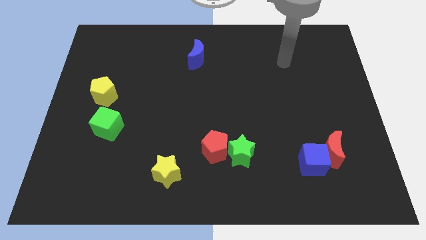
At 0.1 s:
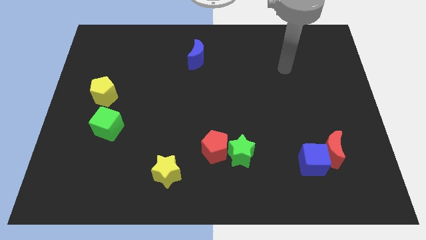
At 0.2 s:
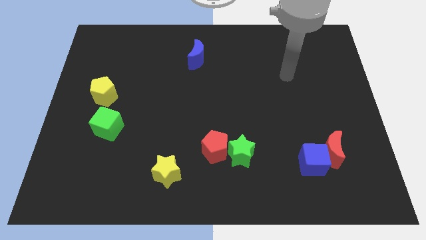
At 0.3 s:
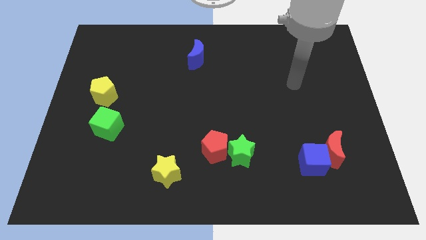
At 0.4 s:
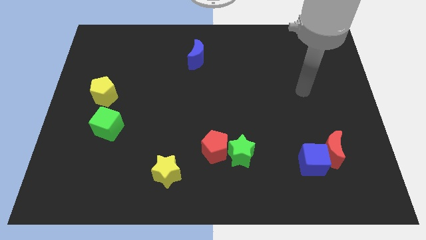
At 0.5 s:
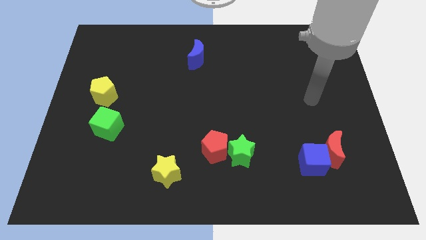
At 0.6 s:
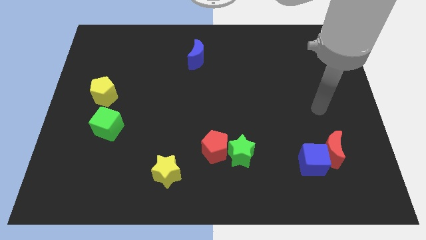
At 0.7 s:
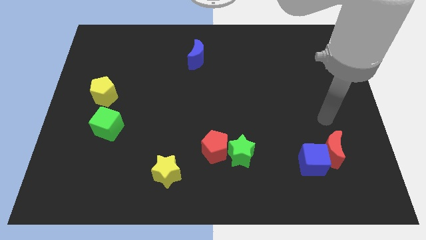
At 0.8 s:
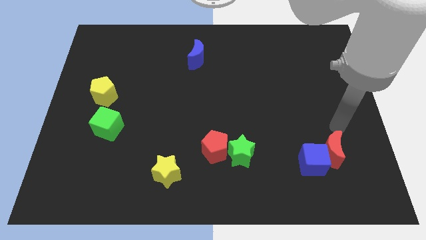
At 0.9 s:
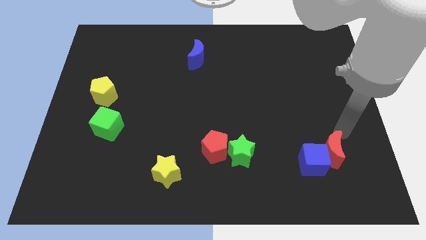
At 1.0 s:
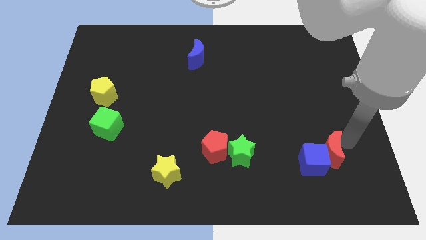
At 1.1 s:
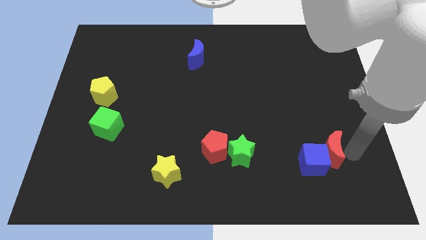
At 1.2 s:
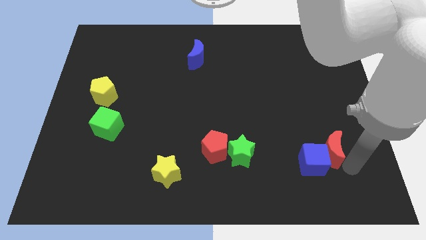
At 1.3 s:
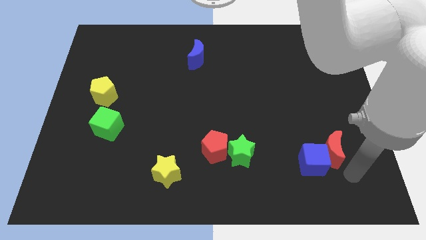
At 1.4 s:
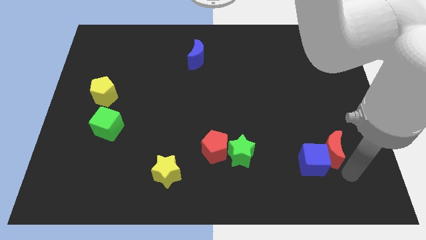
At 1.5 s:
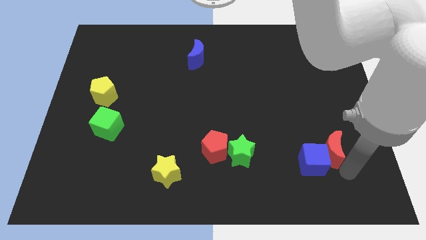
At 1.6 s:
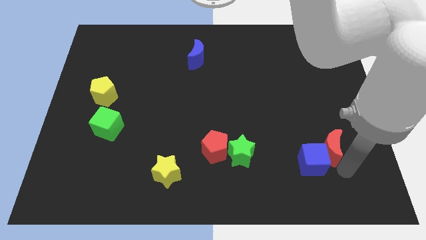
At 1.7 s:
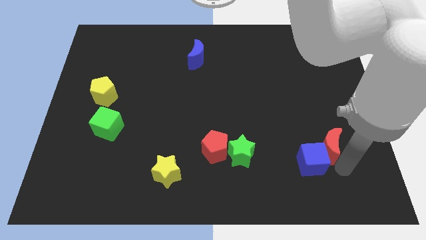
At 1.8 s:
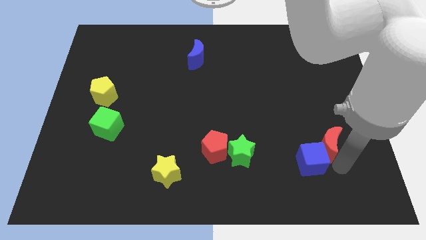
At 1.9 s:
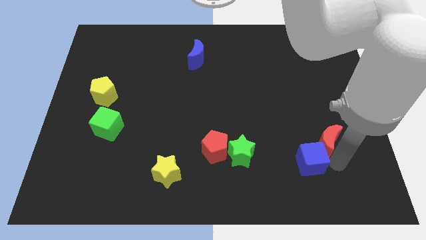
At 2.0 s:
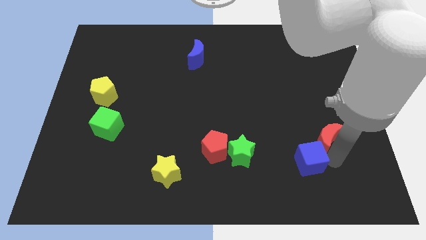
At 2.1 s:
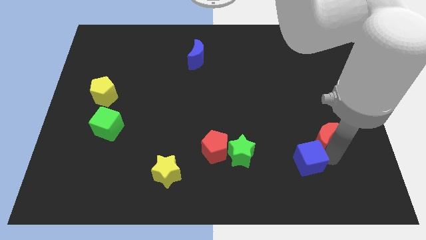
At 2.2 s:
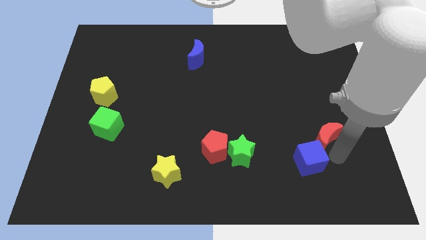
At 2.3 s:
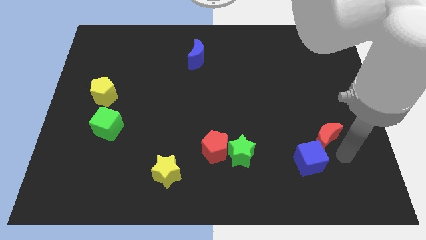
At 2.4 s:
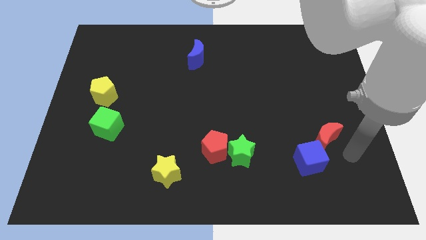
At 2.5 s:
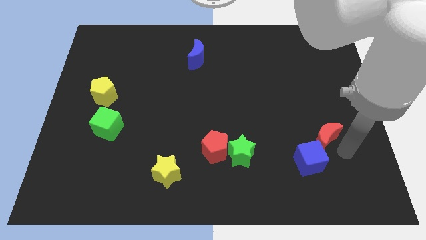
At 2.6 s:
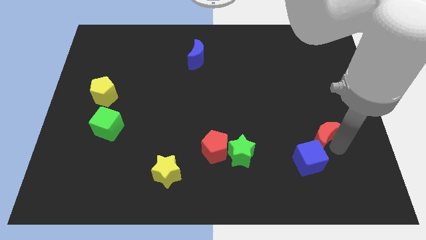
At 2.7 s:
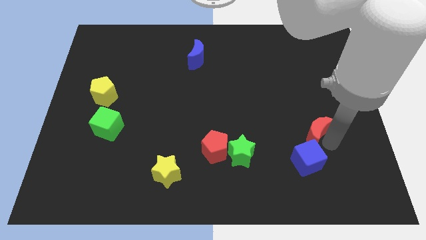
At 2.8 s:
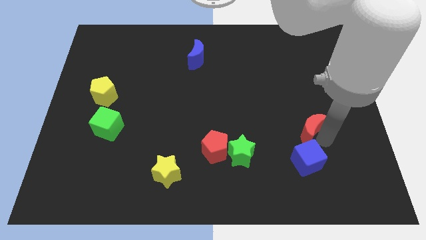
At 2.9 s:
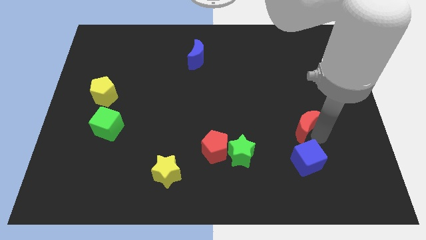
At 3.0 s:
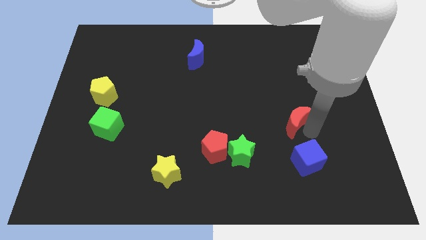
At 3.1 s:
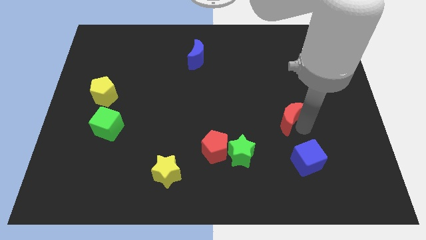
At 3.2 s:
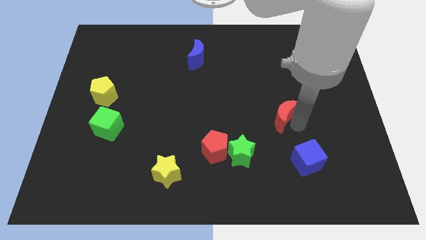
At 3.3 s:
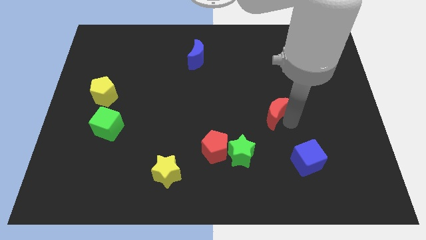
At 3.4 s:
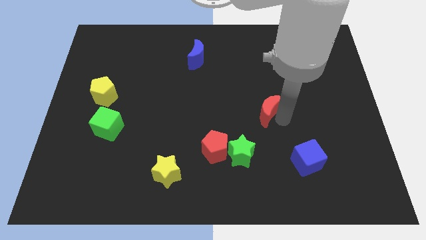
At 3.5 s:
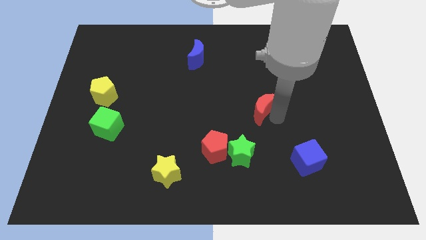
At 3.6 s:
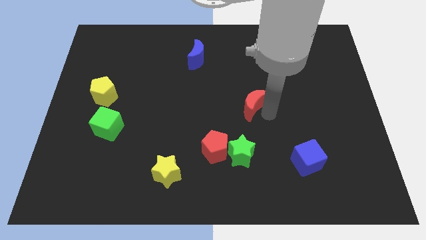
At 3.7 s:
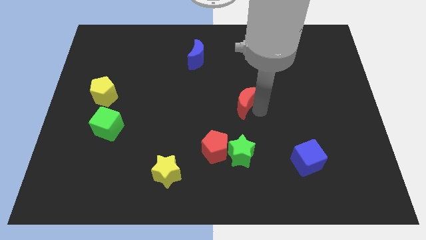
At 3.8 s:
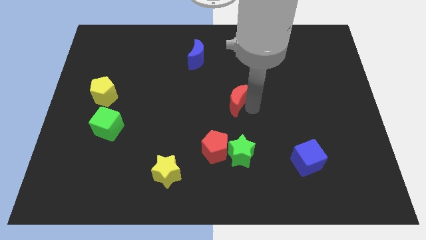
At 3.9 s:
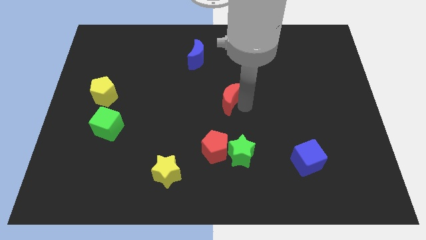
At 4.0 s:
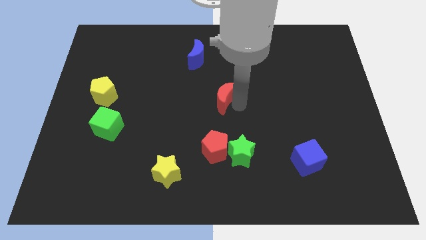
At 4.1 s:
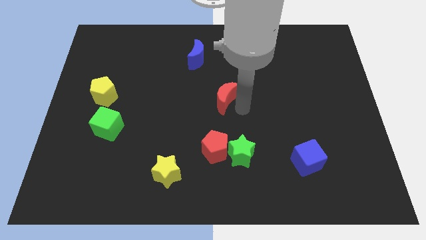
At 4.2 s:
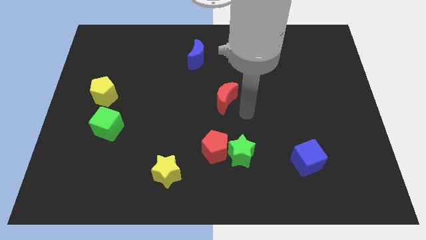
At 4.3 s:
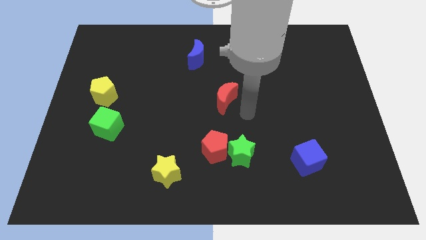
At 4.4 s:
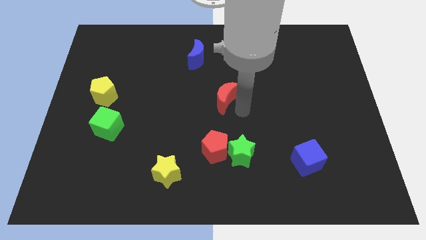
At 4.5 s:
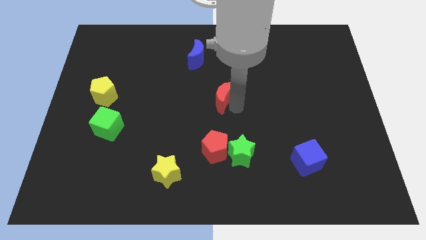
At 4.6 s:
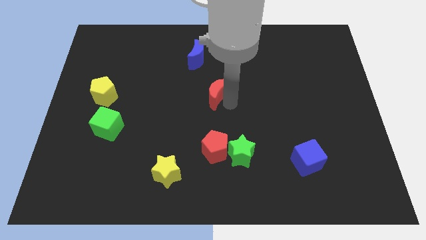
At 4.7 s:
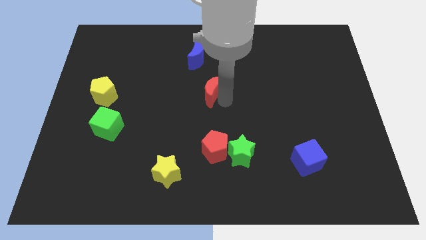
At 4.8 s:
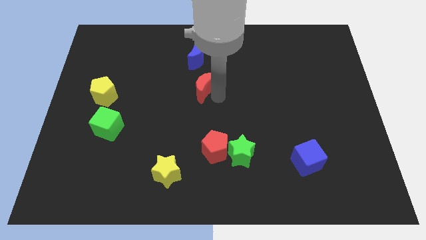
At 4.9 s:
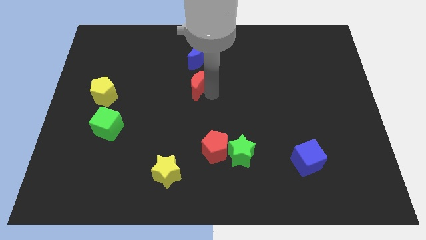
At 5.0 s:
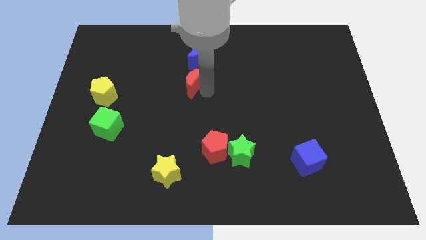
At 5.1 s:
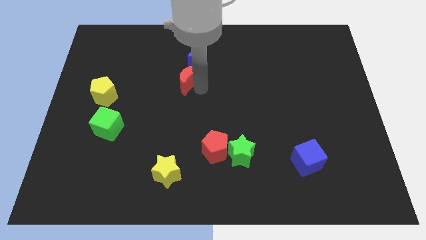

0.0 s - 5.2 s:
slide the red moon to the bottom left side of the blue moon

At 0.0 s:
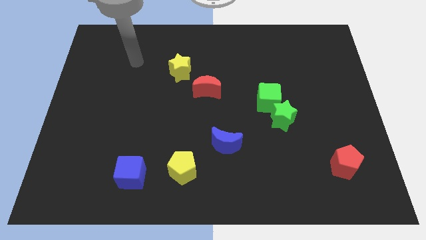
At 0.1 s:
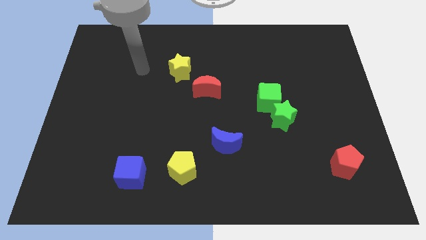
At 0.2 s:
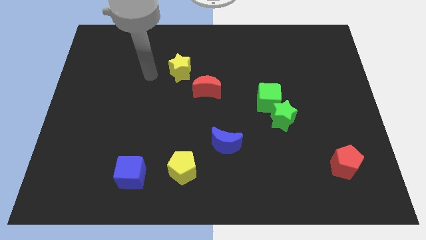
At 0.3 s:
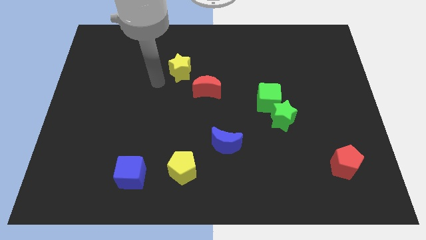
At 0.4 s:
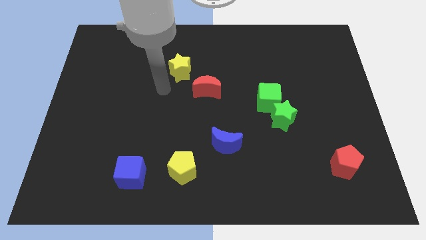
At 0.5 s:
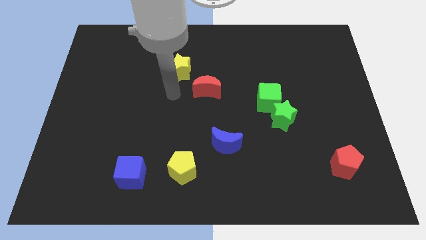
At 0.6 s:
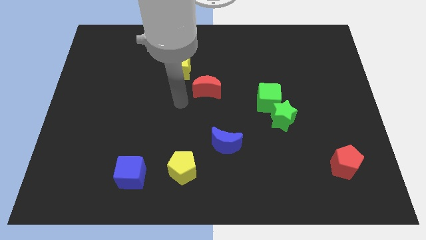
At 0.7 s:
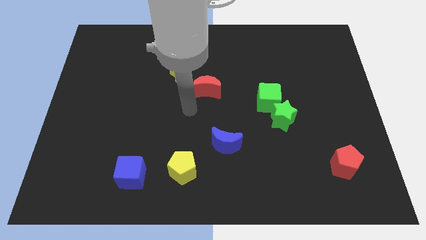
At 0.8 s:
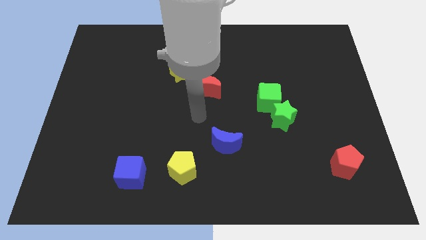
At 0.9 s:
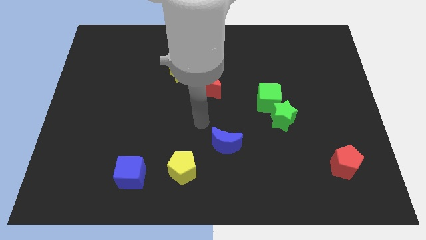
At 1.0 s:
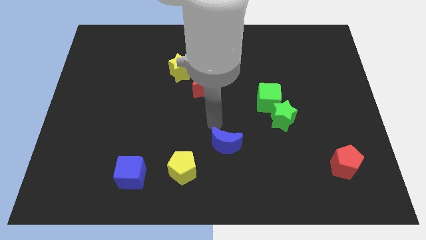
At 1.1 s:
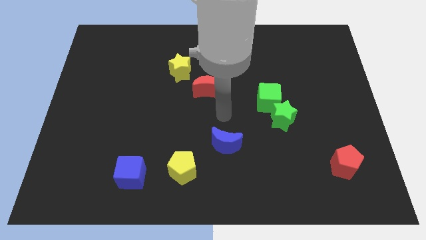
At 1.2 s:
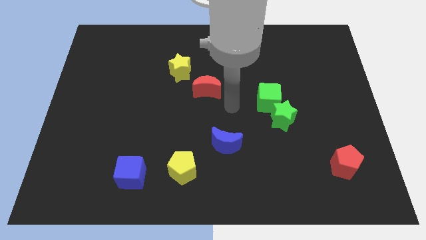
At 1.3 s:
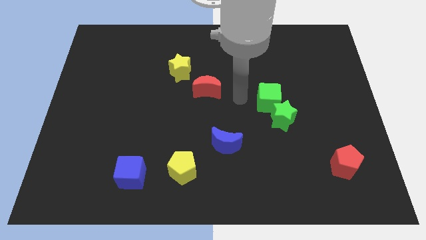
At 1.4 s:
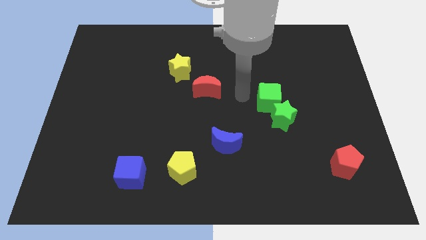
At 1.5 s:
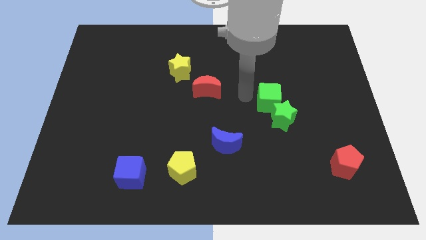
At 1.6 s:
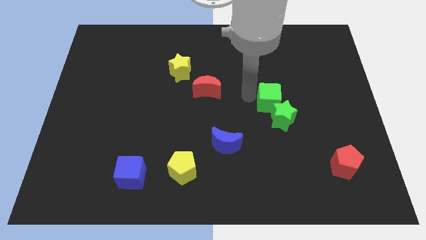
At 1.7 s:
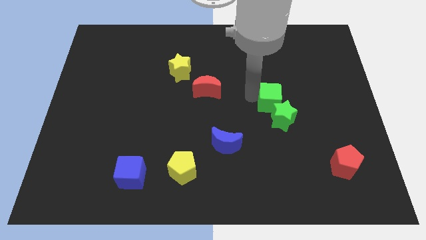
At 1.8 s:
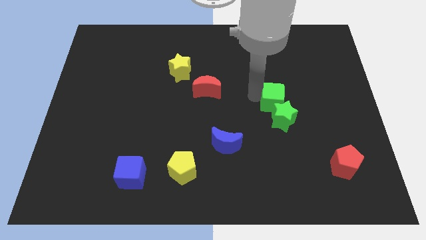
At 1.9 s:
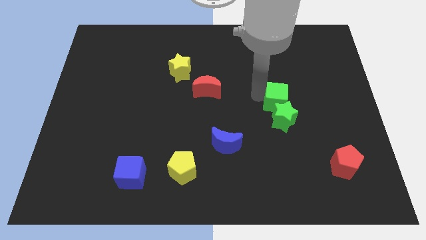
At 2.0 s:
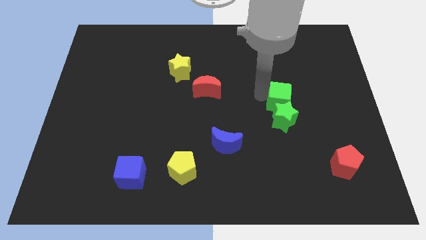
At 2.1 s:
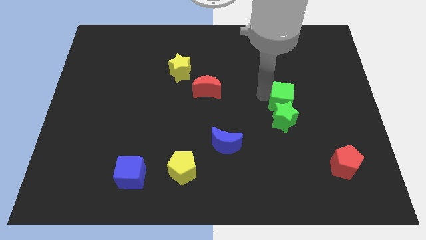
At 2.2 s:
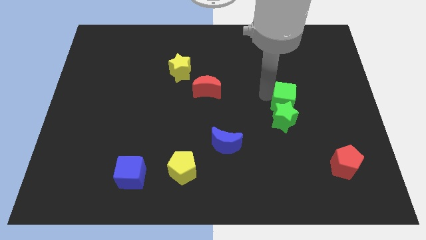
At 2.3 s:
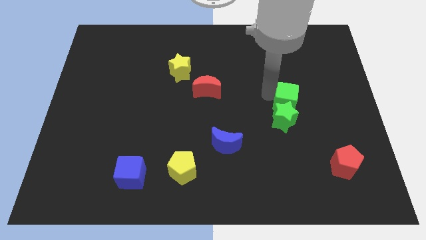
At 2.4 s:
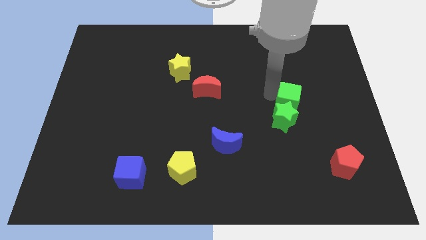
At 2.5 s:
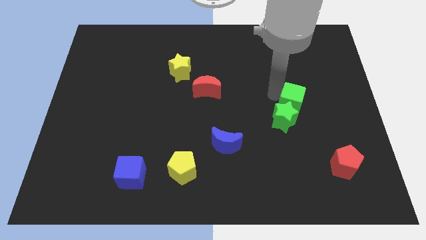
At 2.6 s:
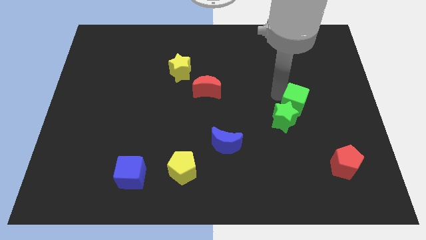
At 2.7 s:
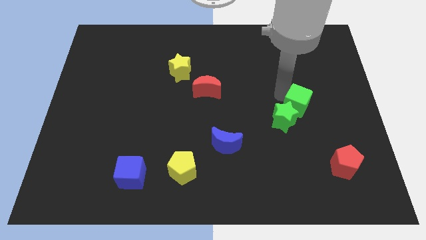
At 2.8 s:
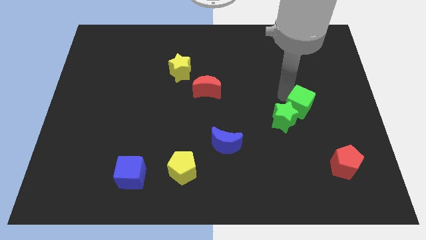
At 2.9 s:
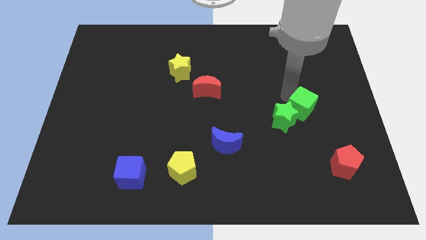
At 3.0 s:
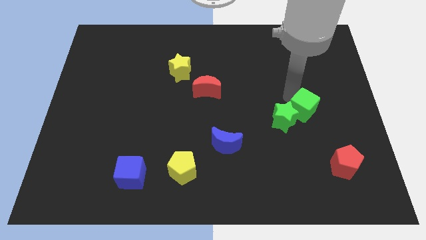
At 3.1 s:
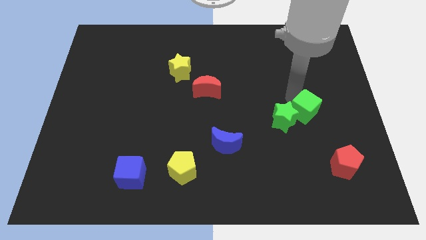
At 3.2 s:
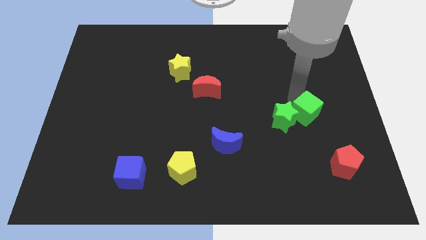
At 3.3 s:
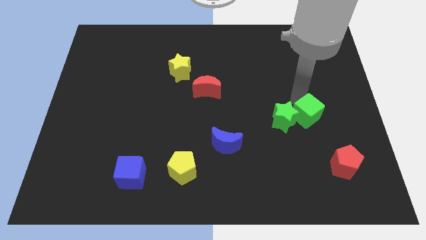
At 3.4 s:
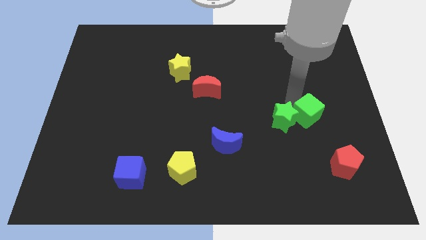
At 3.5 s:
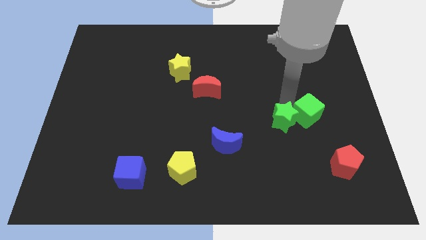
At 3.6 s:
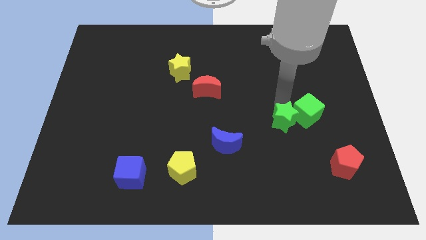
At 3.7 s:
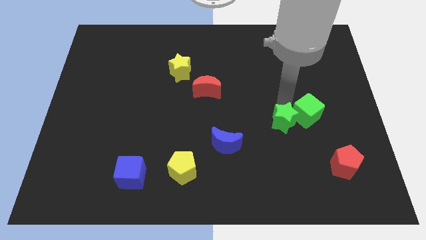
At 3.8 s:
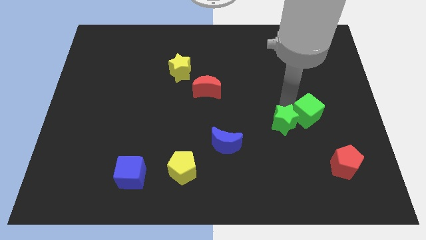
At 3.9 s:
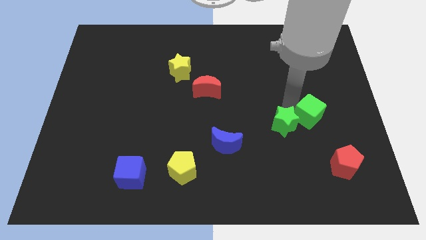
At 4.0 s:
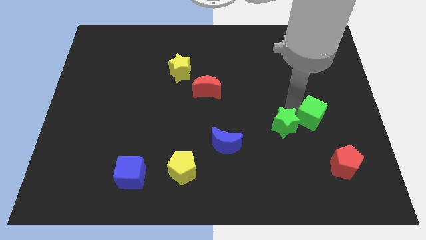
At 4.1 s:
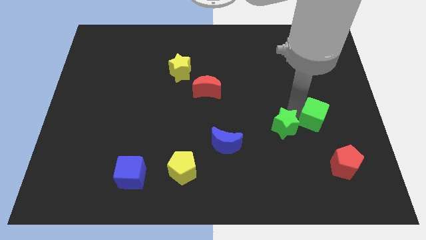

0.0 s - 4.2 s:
move the green cube to the top of the red pentagon
